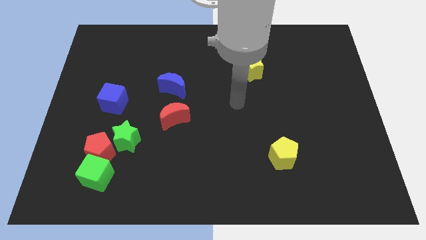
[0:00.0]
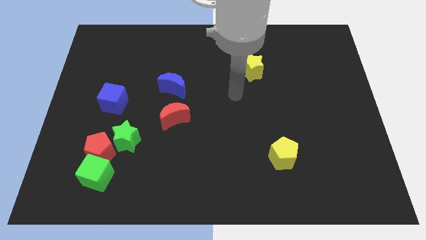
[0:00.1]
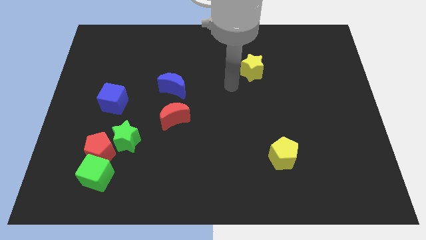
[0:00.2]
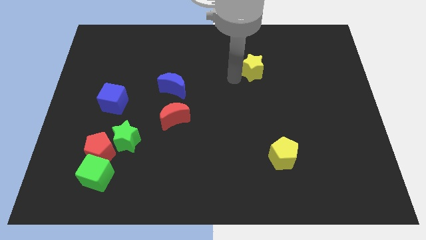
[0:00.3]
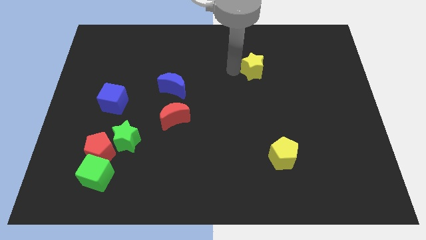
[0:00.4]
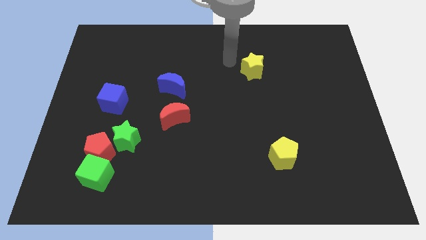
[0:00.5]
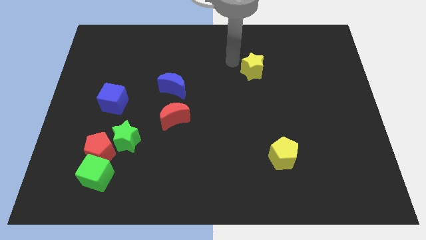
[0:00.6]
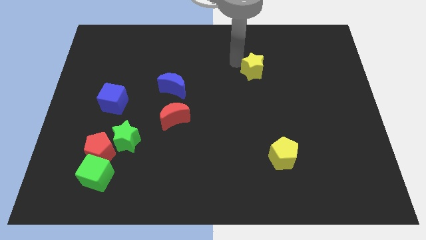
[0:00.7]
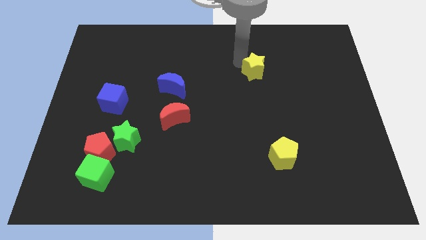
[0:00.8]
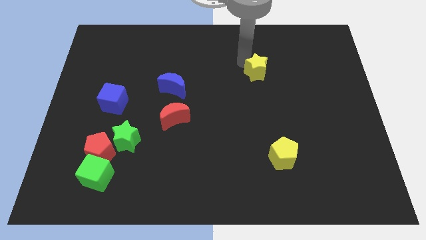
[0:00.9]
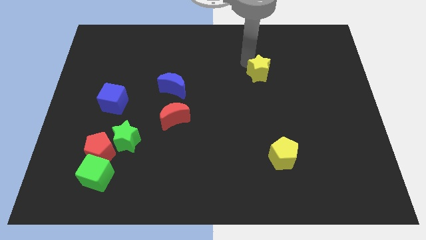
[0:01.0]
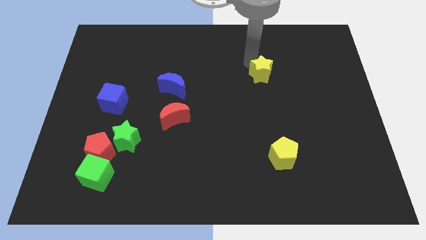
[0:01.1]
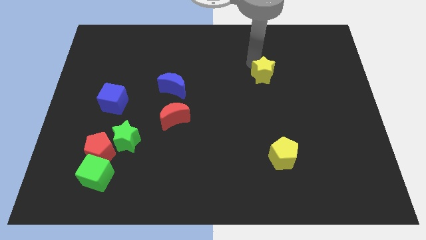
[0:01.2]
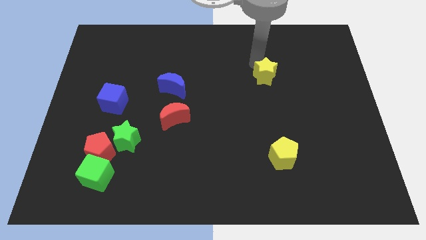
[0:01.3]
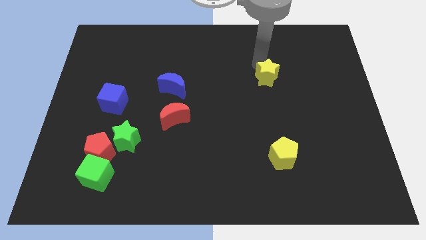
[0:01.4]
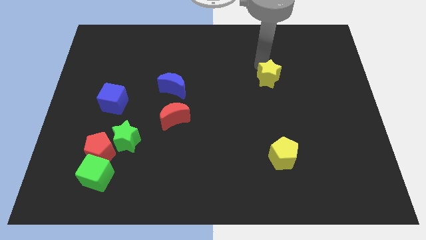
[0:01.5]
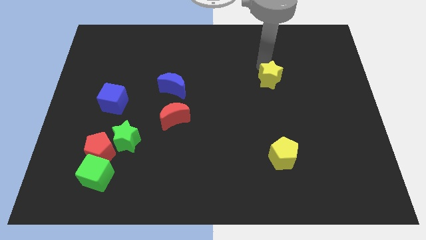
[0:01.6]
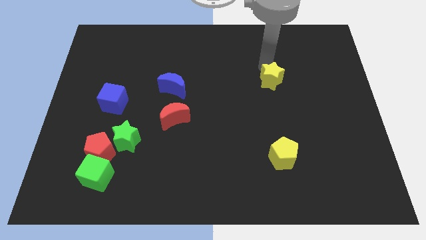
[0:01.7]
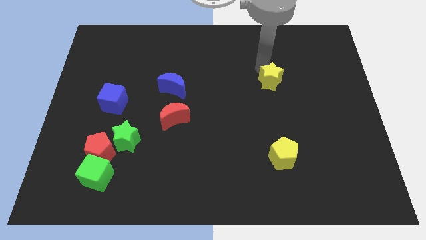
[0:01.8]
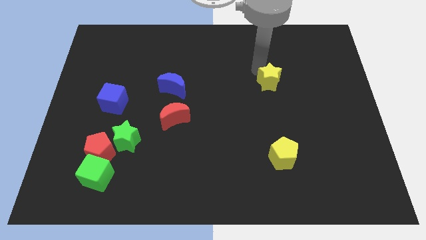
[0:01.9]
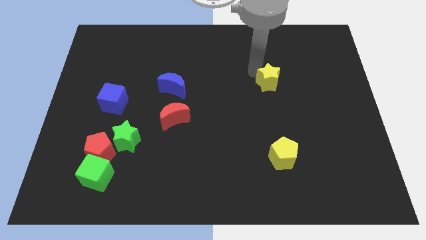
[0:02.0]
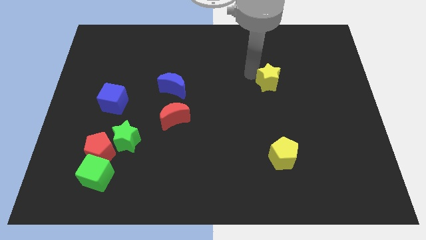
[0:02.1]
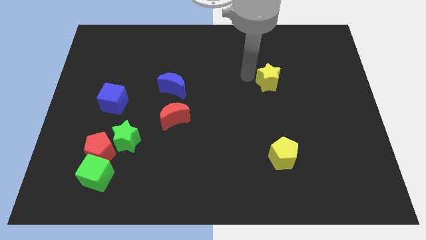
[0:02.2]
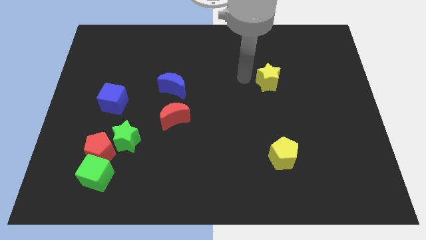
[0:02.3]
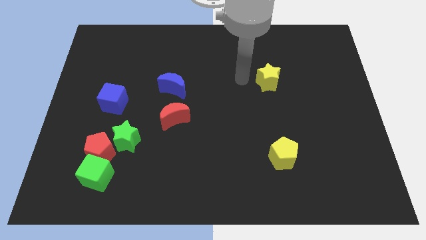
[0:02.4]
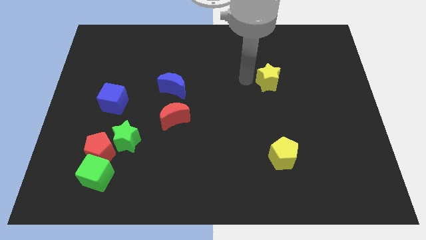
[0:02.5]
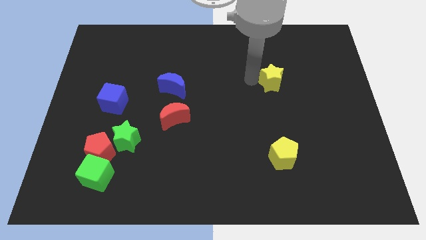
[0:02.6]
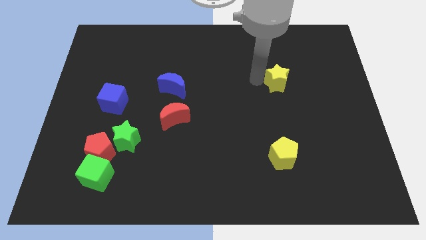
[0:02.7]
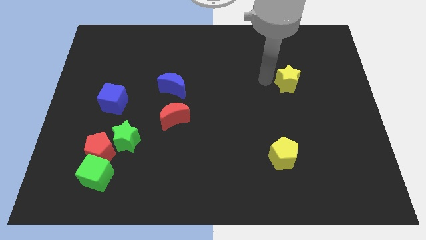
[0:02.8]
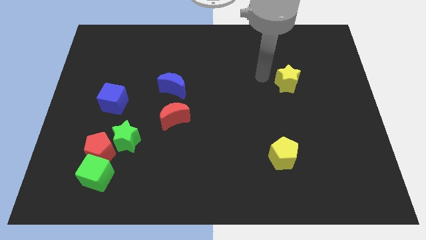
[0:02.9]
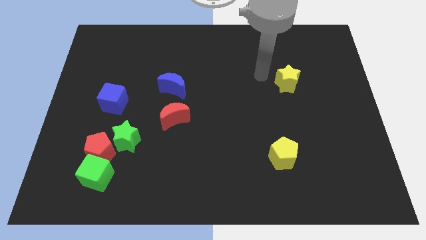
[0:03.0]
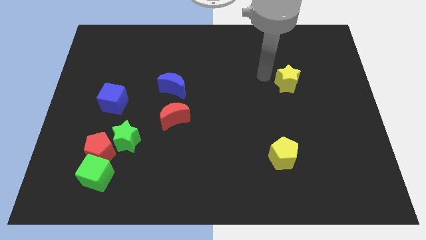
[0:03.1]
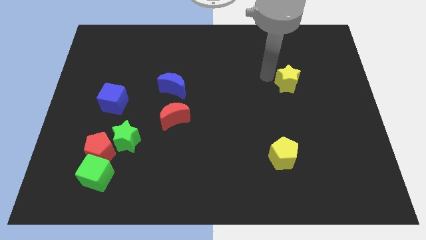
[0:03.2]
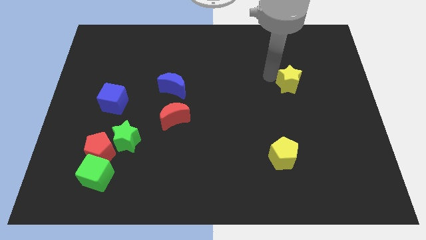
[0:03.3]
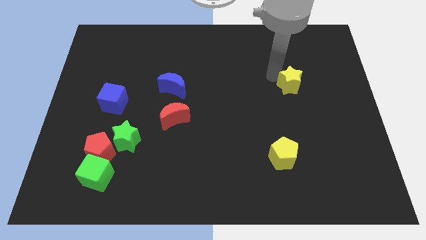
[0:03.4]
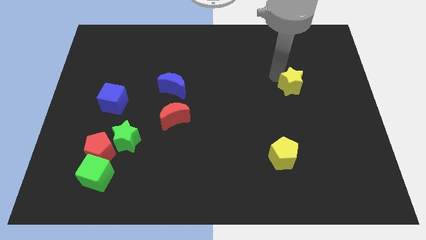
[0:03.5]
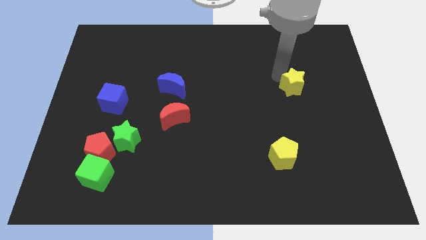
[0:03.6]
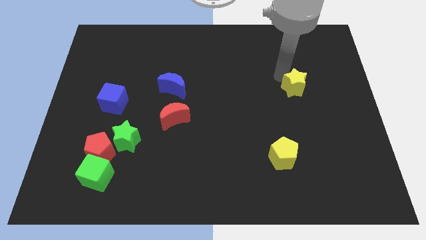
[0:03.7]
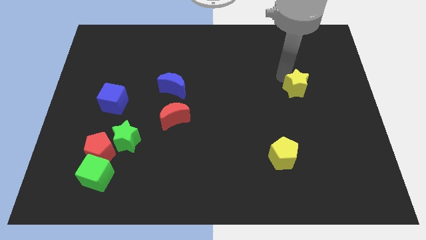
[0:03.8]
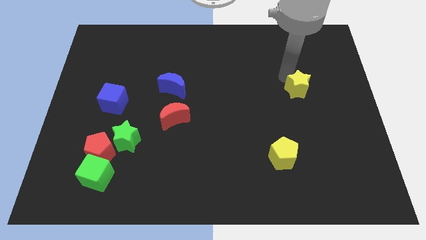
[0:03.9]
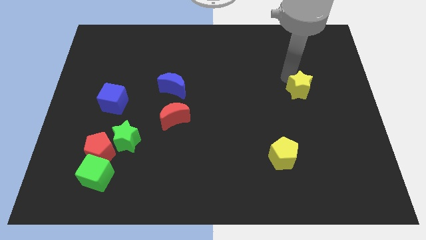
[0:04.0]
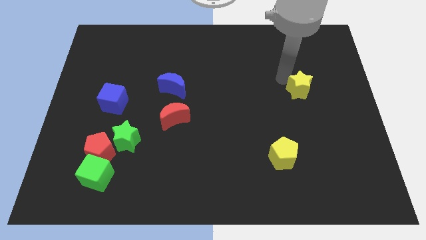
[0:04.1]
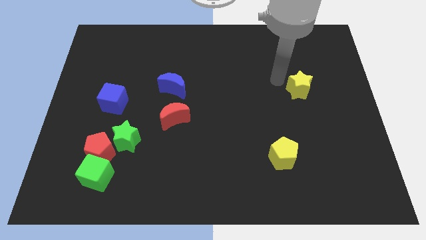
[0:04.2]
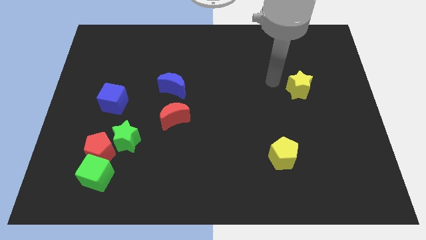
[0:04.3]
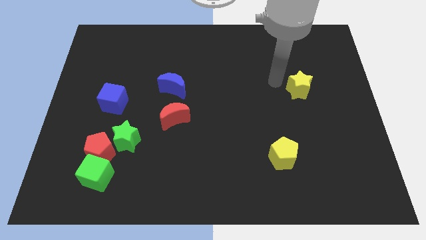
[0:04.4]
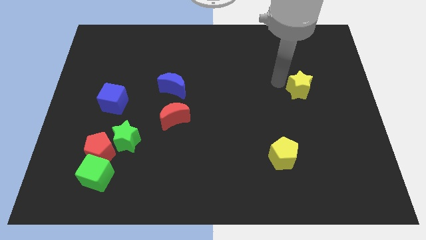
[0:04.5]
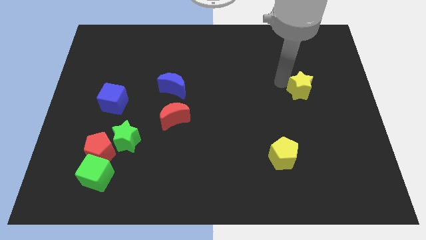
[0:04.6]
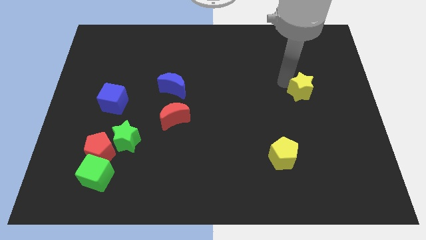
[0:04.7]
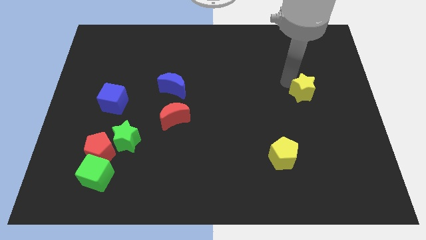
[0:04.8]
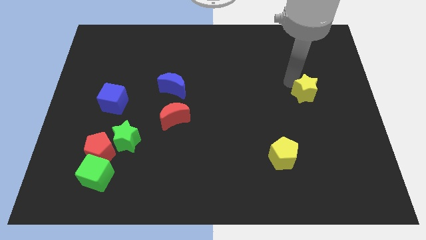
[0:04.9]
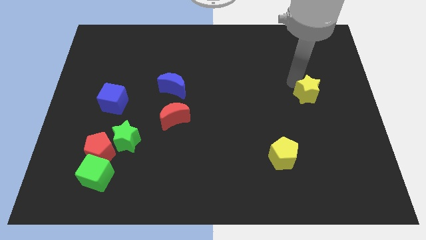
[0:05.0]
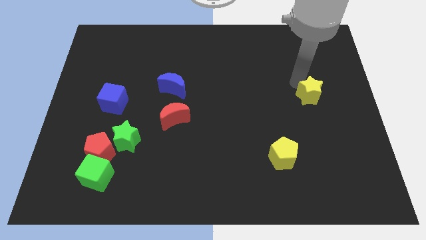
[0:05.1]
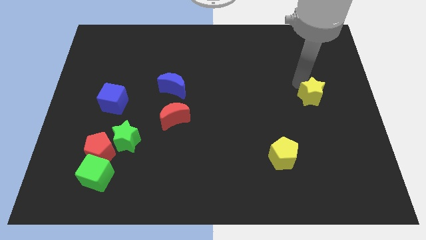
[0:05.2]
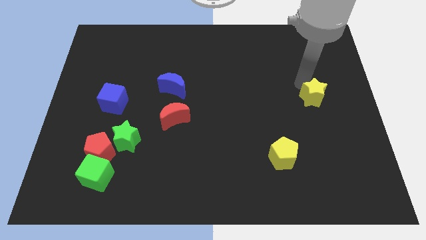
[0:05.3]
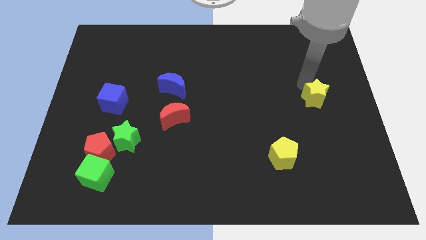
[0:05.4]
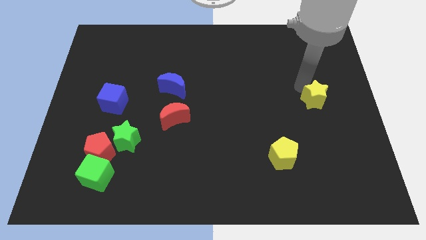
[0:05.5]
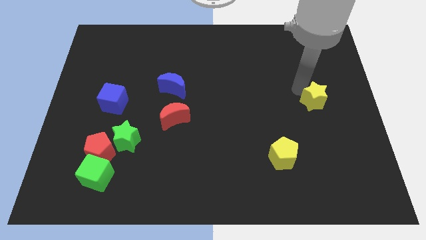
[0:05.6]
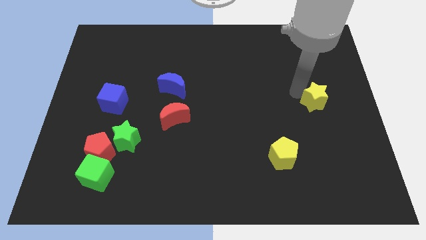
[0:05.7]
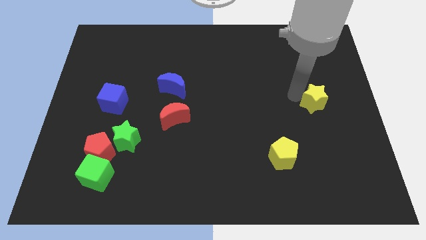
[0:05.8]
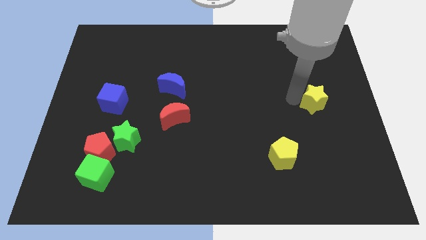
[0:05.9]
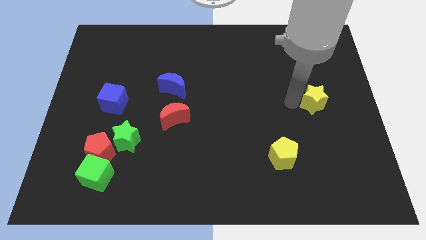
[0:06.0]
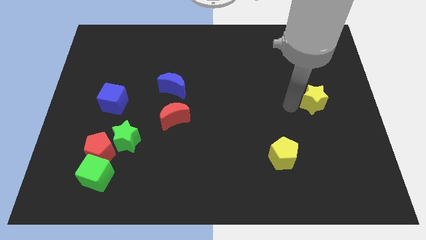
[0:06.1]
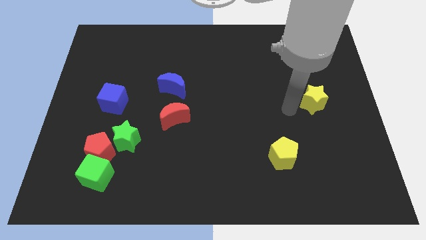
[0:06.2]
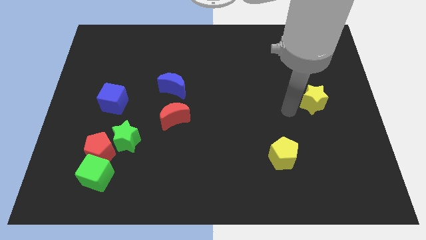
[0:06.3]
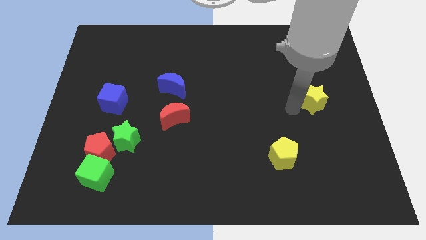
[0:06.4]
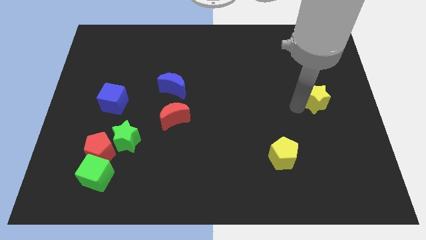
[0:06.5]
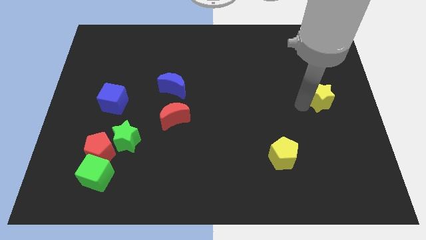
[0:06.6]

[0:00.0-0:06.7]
put the yellow star to the center right
